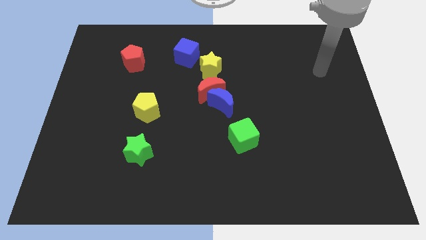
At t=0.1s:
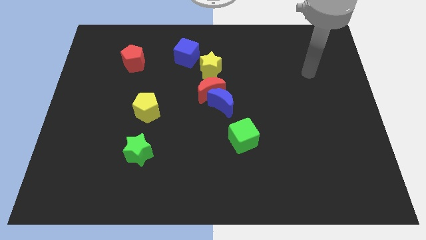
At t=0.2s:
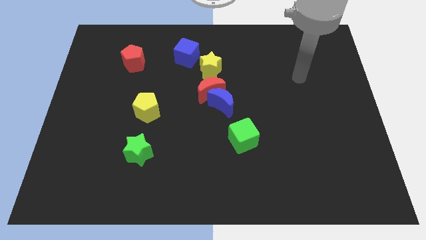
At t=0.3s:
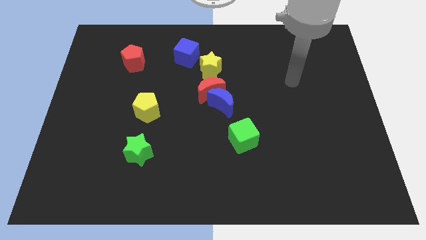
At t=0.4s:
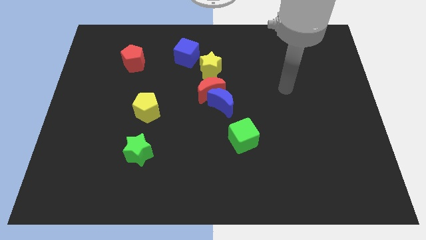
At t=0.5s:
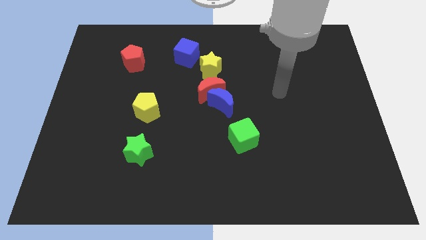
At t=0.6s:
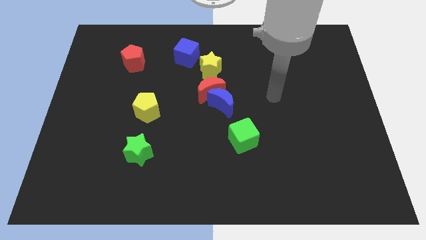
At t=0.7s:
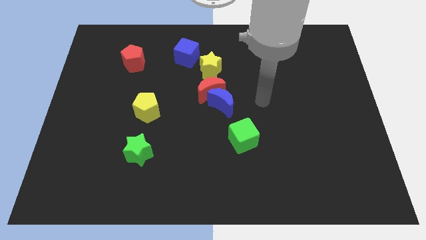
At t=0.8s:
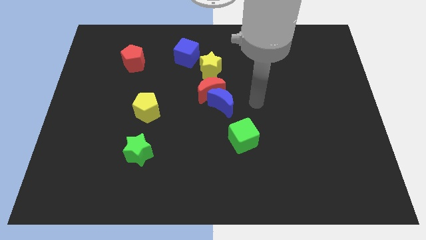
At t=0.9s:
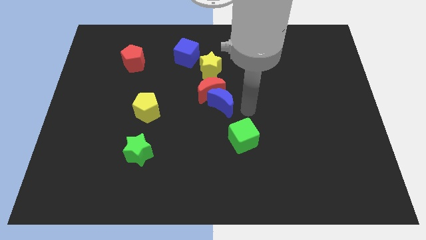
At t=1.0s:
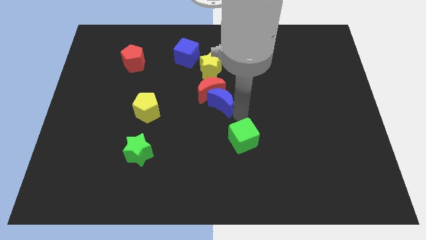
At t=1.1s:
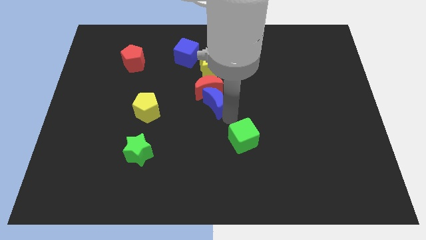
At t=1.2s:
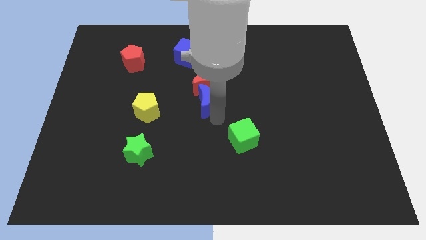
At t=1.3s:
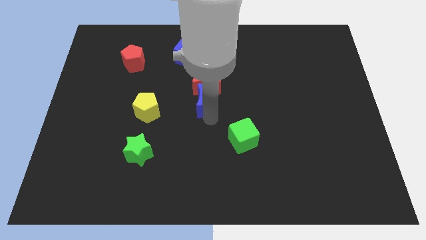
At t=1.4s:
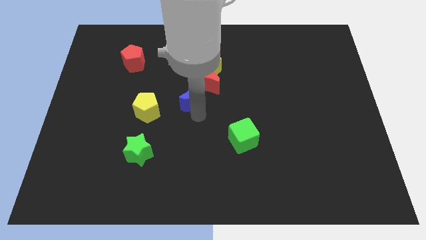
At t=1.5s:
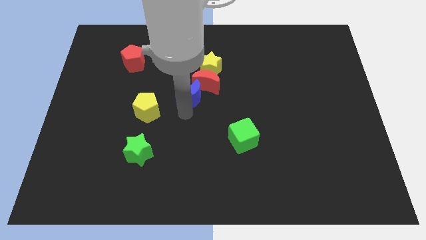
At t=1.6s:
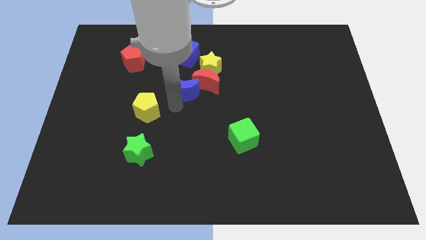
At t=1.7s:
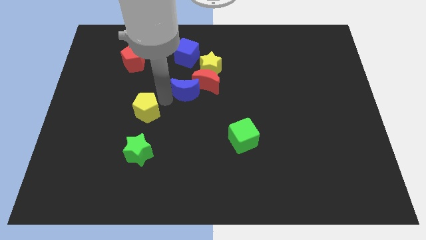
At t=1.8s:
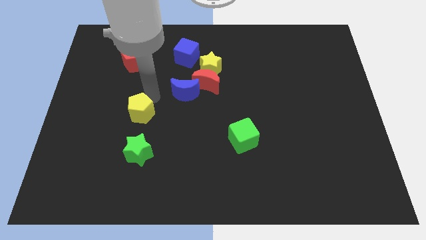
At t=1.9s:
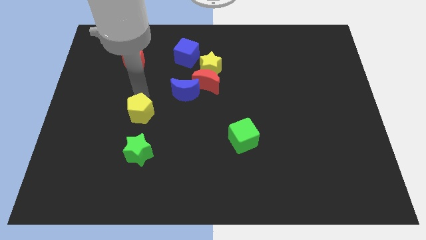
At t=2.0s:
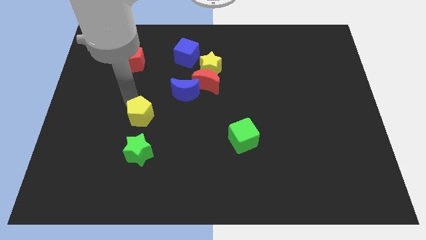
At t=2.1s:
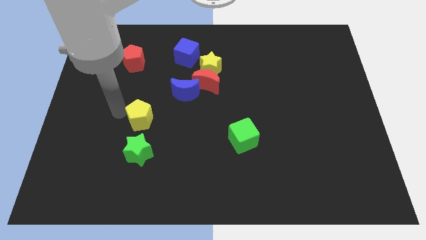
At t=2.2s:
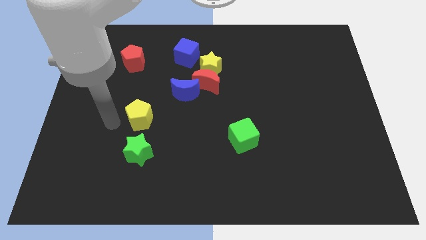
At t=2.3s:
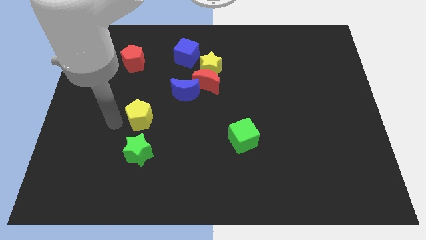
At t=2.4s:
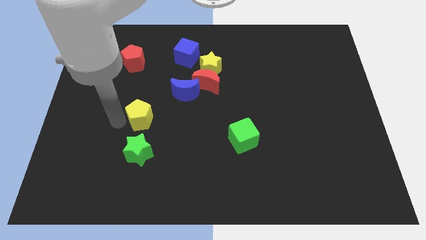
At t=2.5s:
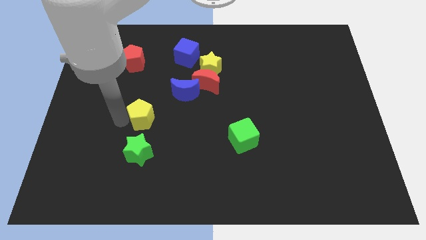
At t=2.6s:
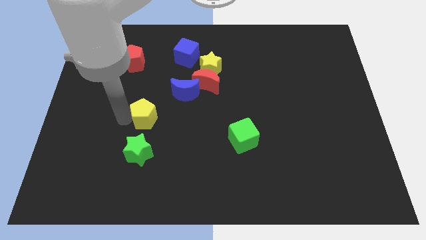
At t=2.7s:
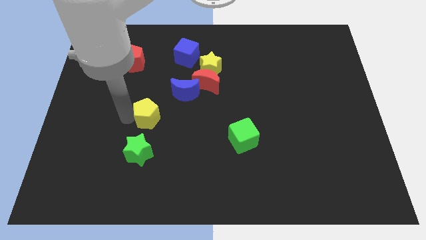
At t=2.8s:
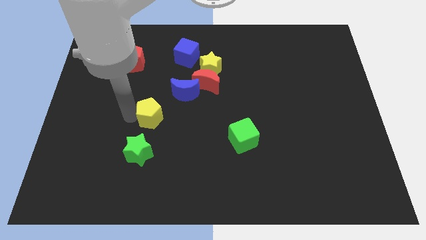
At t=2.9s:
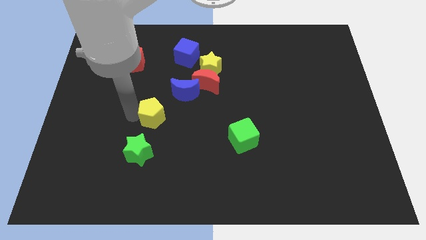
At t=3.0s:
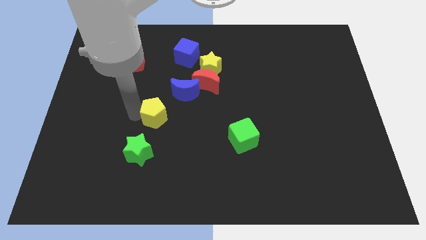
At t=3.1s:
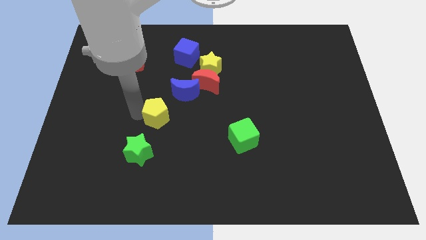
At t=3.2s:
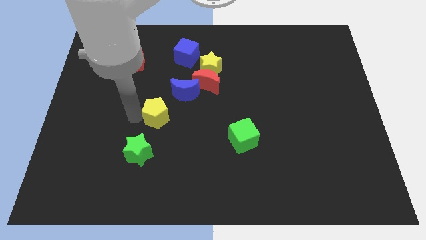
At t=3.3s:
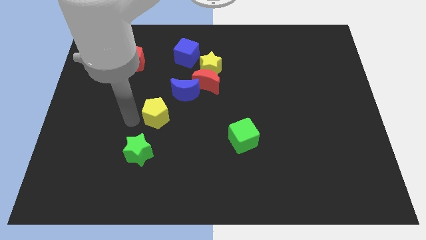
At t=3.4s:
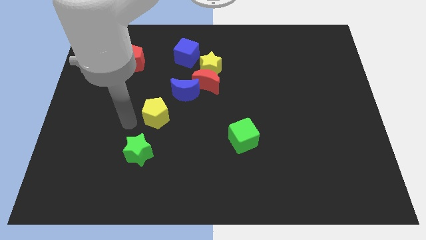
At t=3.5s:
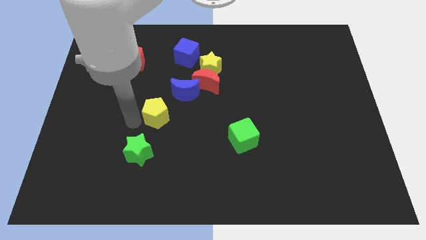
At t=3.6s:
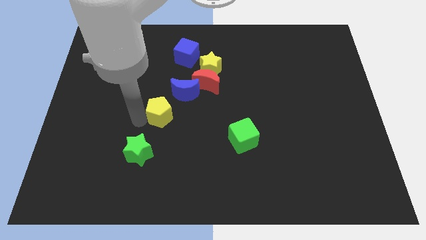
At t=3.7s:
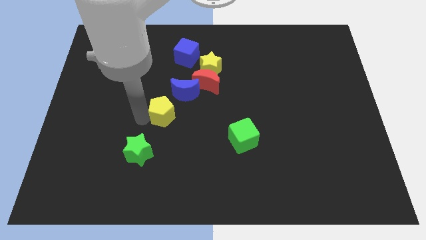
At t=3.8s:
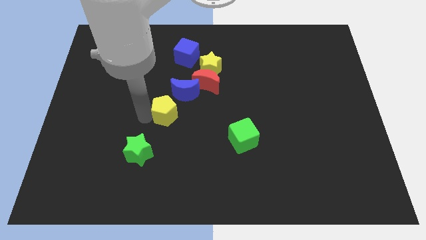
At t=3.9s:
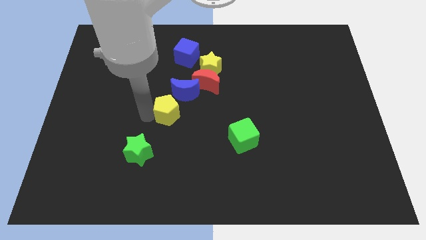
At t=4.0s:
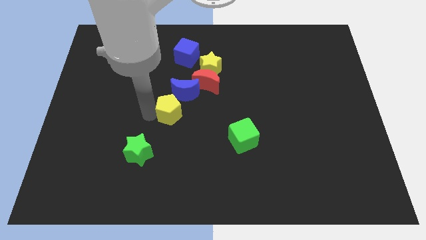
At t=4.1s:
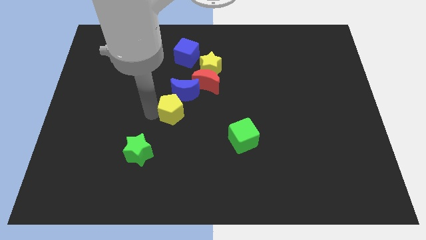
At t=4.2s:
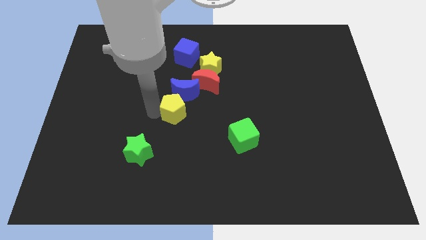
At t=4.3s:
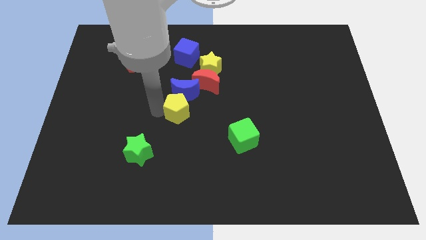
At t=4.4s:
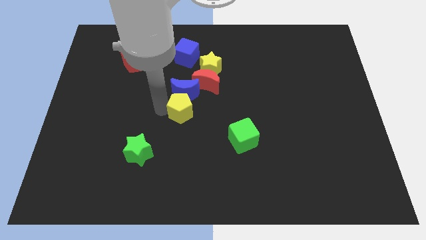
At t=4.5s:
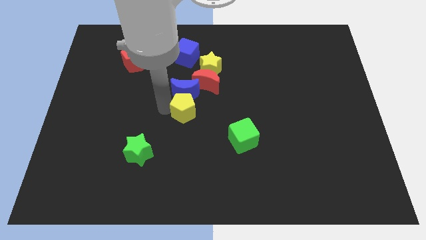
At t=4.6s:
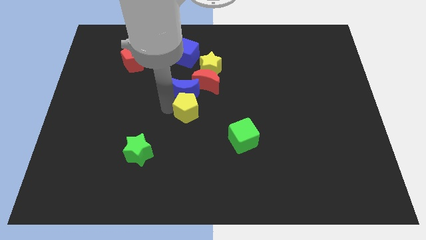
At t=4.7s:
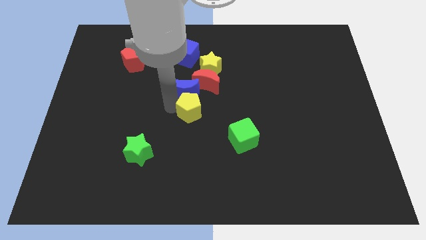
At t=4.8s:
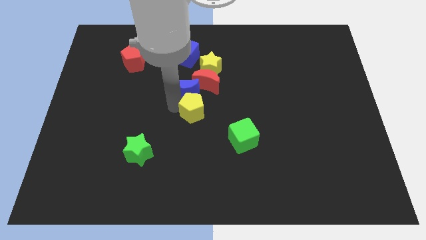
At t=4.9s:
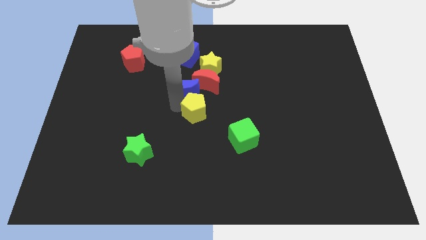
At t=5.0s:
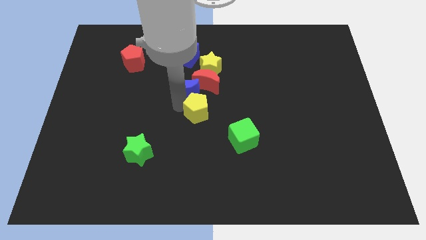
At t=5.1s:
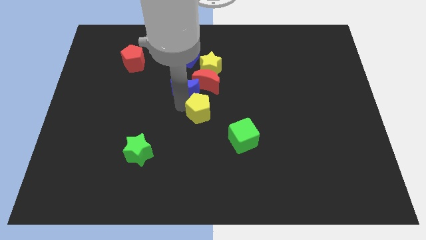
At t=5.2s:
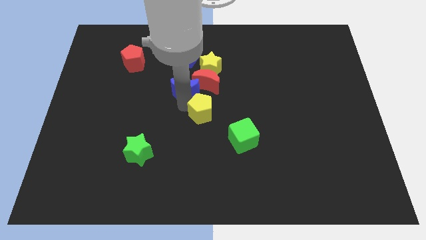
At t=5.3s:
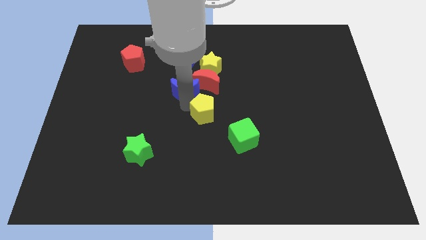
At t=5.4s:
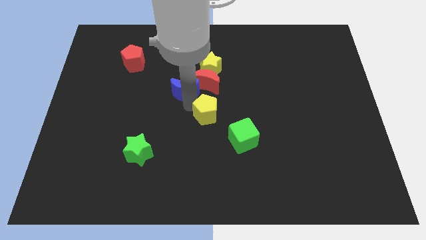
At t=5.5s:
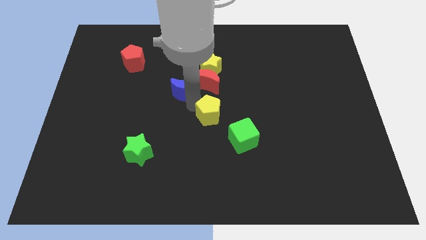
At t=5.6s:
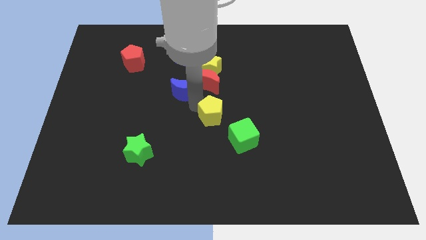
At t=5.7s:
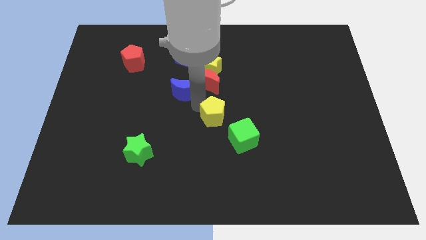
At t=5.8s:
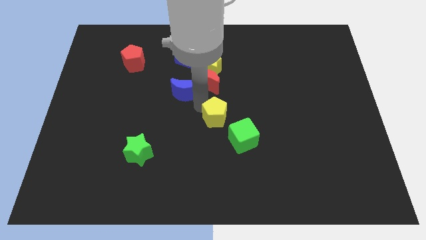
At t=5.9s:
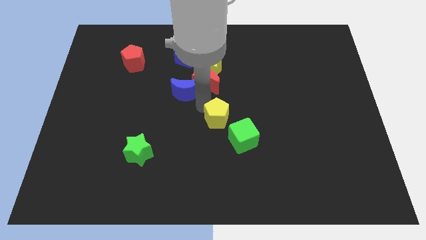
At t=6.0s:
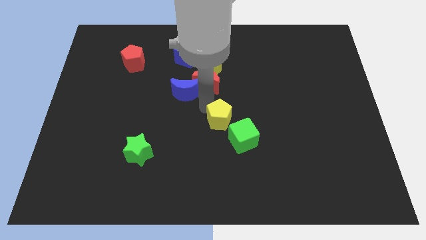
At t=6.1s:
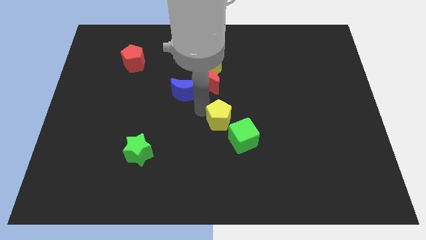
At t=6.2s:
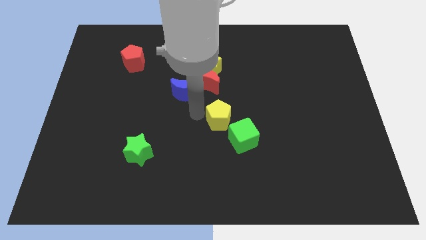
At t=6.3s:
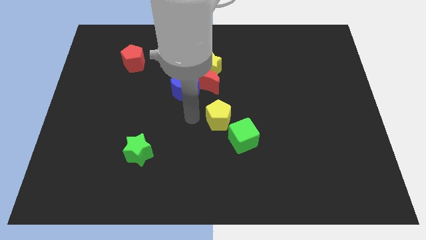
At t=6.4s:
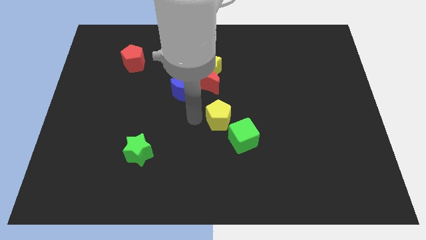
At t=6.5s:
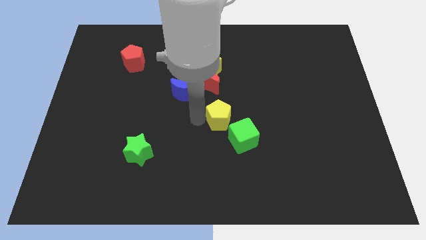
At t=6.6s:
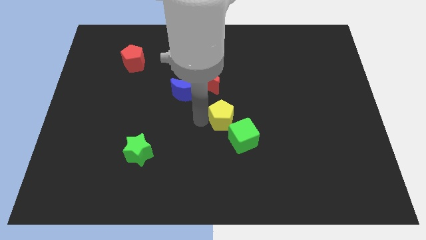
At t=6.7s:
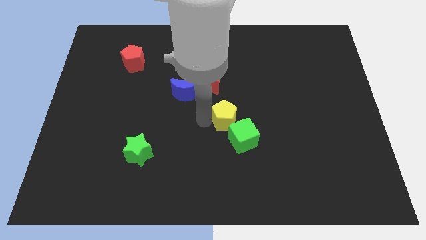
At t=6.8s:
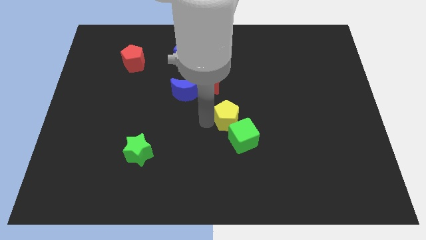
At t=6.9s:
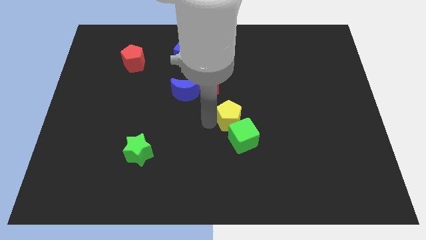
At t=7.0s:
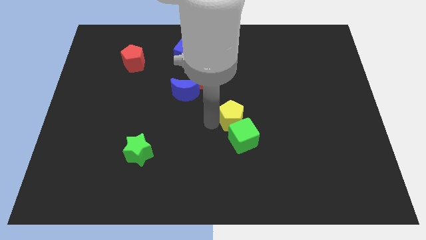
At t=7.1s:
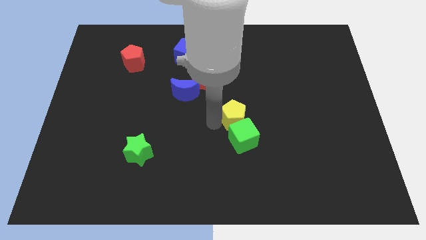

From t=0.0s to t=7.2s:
push the yellow pentagon right

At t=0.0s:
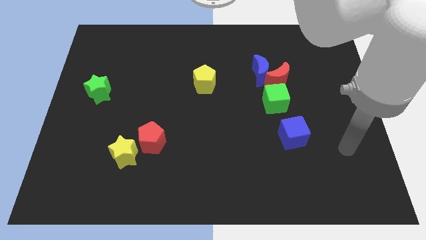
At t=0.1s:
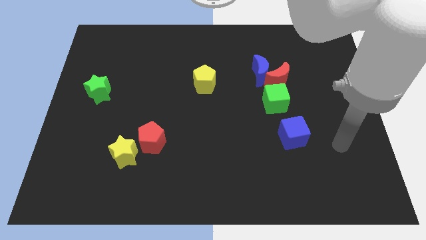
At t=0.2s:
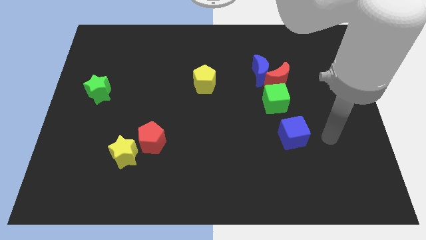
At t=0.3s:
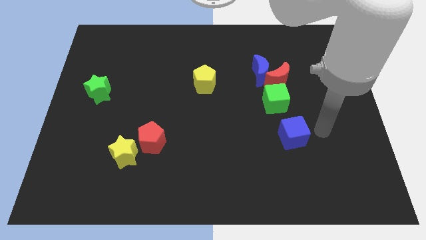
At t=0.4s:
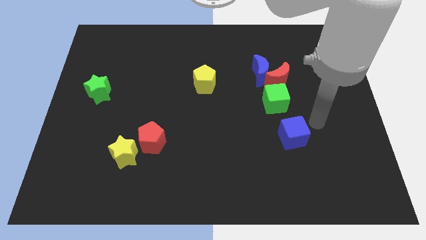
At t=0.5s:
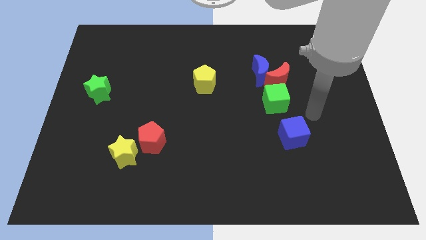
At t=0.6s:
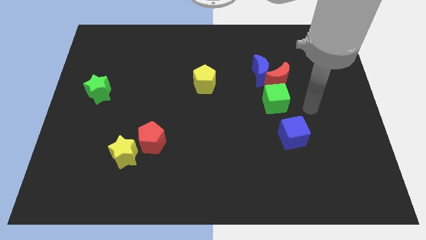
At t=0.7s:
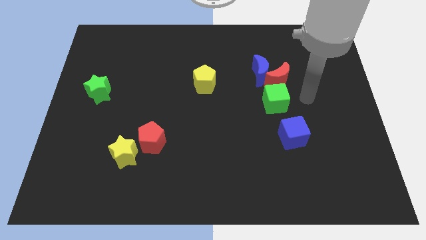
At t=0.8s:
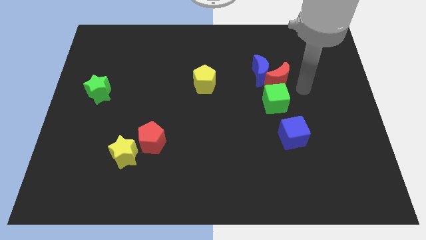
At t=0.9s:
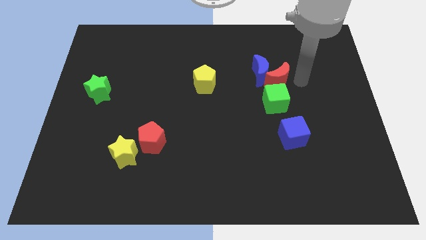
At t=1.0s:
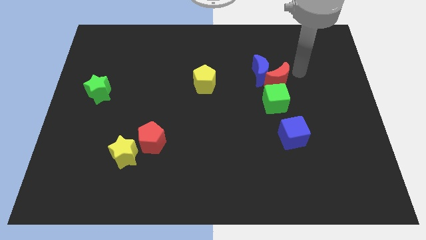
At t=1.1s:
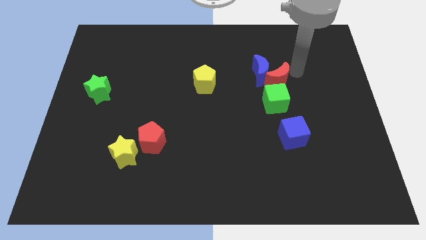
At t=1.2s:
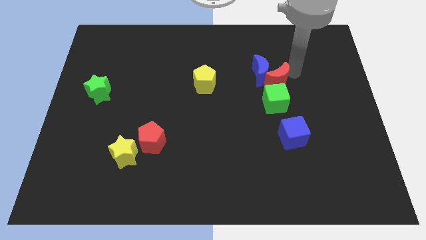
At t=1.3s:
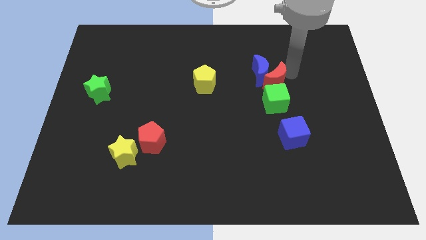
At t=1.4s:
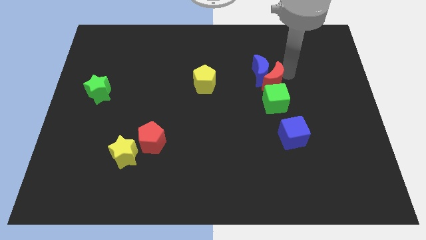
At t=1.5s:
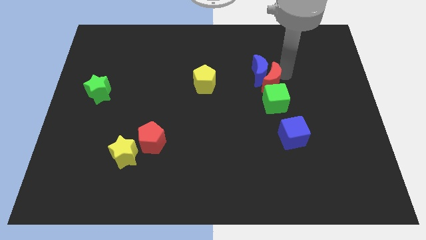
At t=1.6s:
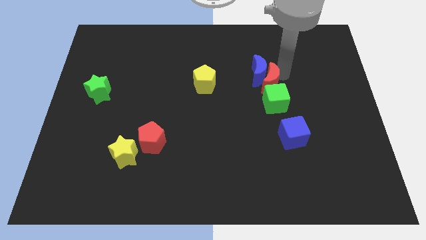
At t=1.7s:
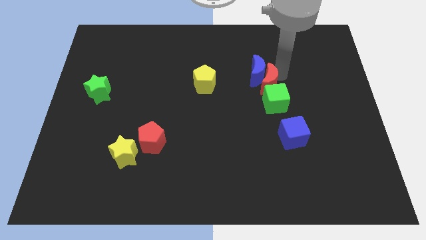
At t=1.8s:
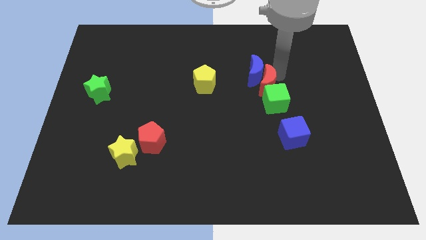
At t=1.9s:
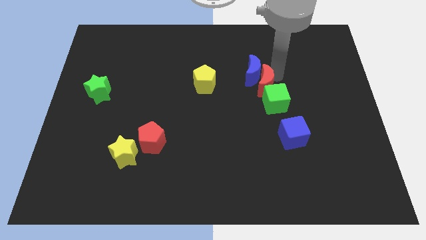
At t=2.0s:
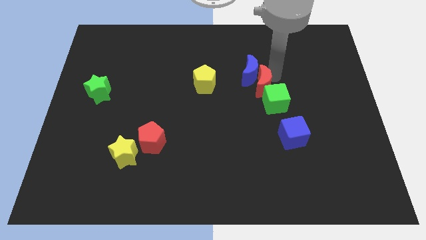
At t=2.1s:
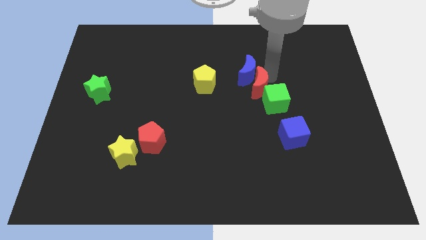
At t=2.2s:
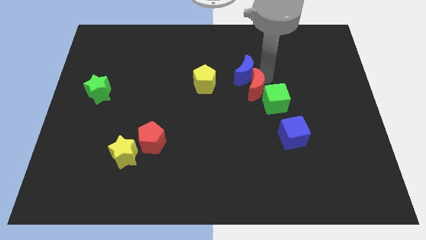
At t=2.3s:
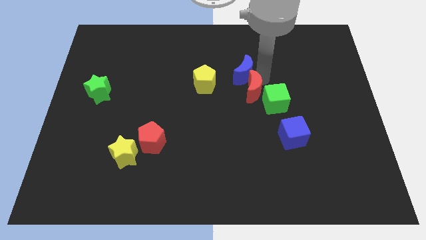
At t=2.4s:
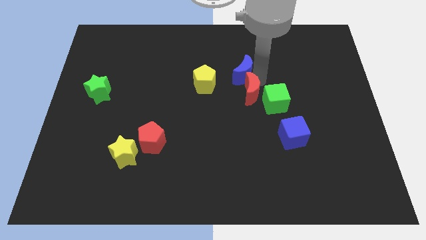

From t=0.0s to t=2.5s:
push the red moon downwards and then to the left a little
